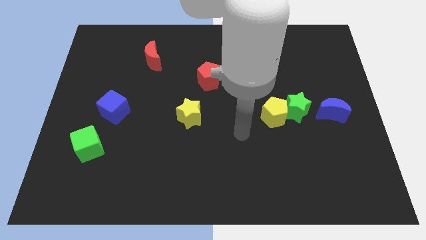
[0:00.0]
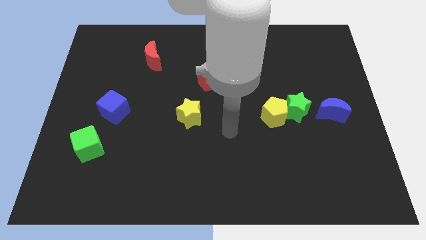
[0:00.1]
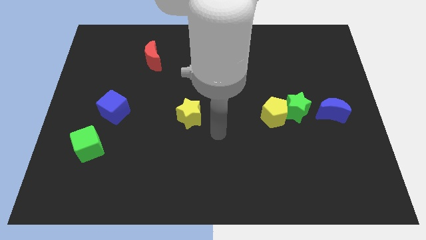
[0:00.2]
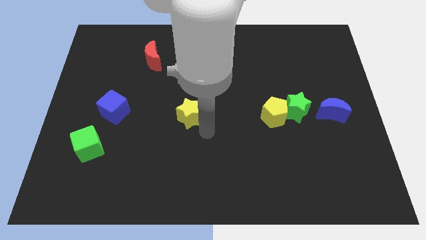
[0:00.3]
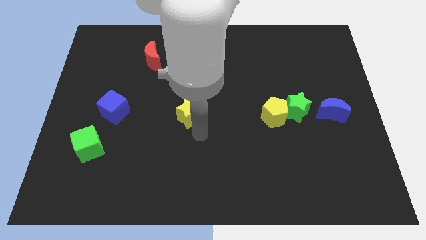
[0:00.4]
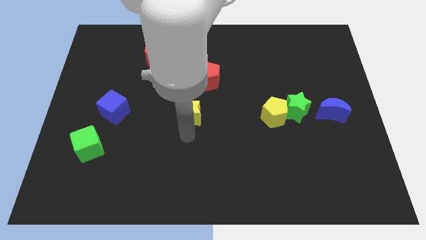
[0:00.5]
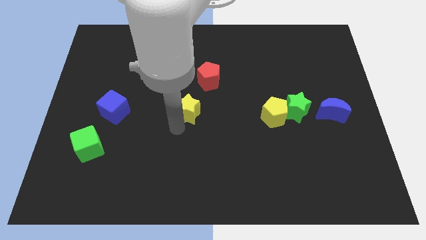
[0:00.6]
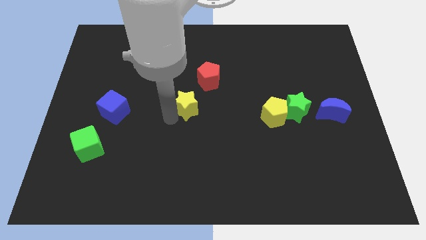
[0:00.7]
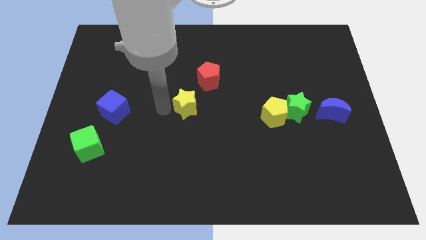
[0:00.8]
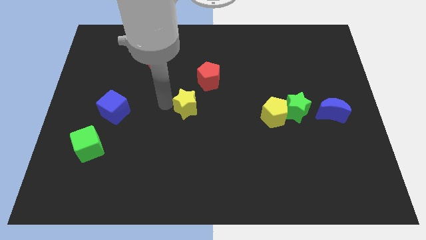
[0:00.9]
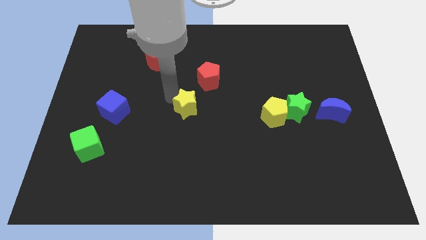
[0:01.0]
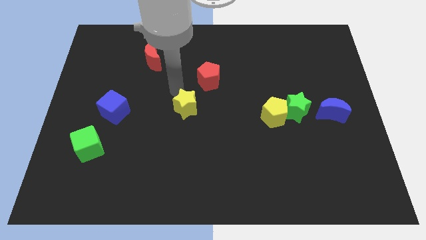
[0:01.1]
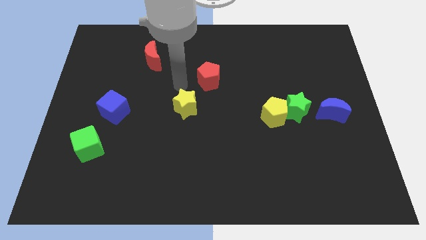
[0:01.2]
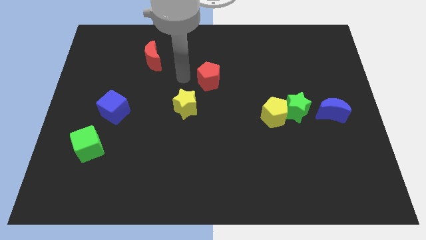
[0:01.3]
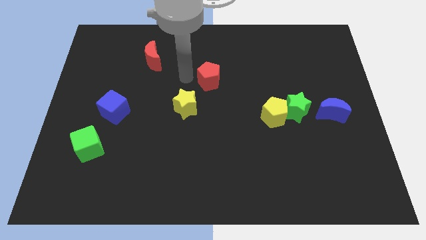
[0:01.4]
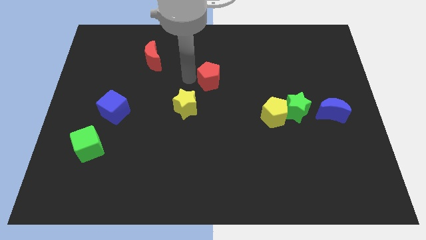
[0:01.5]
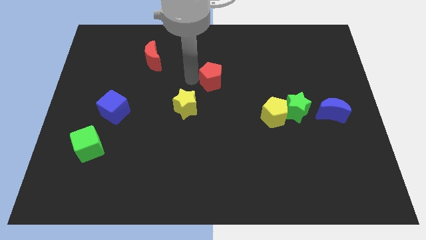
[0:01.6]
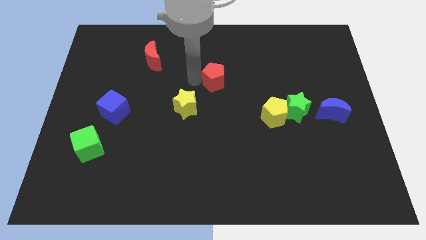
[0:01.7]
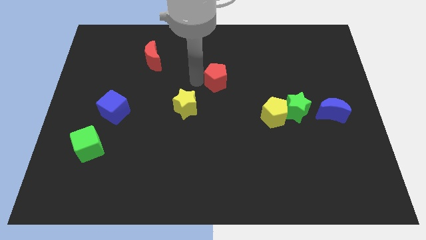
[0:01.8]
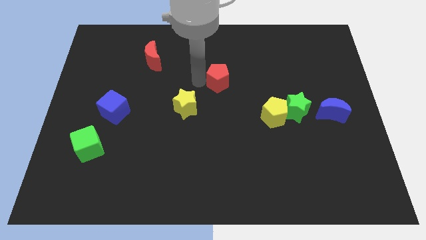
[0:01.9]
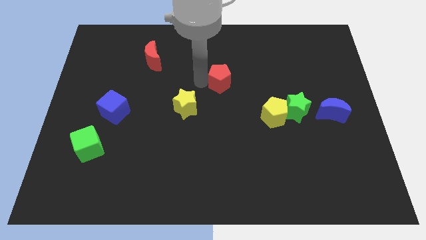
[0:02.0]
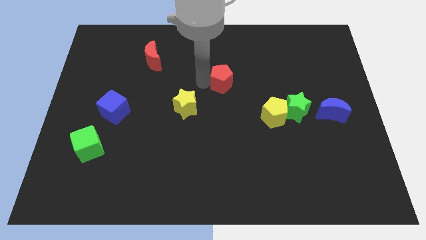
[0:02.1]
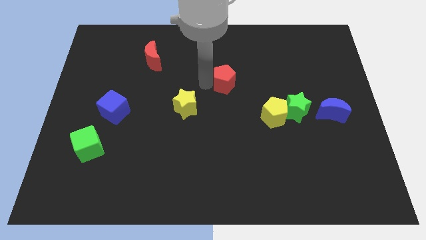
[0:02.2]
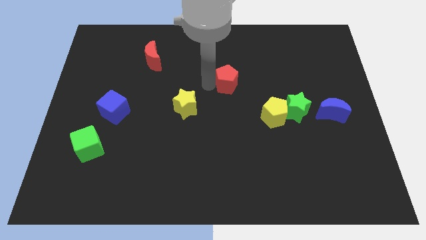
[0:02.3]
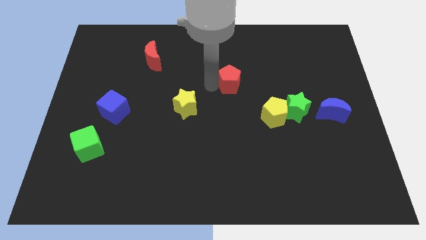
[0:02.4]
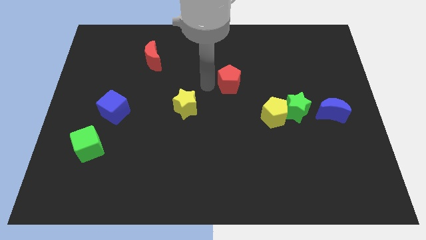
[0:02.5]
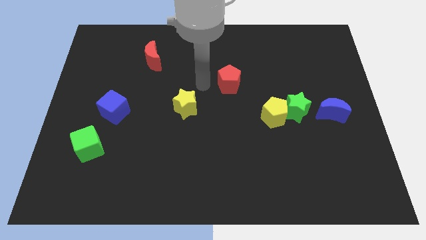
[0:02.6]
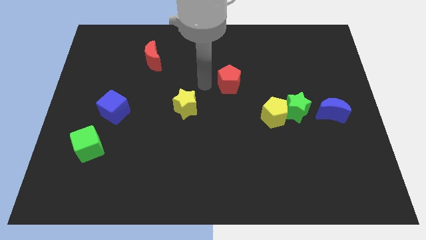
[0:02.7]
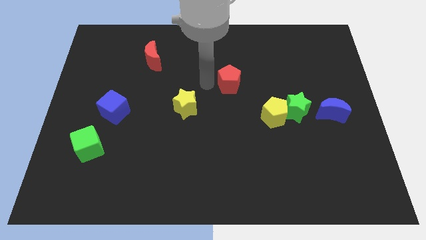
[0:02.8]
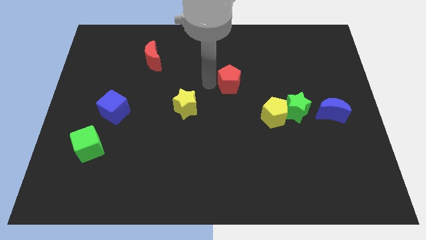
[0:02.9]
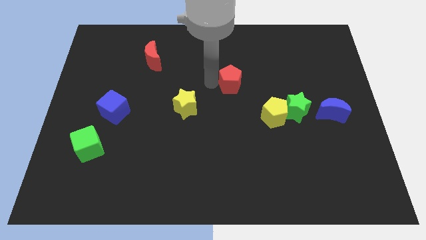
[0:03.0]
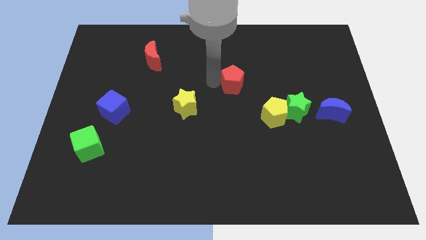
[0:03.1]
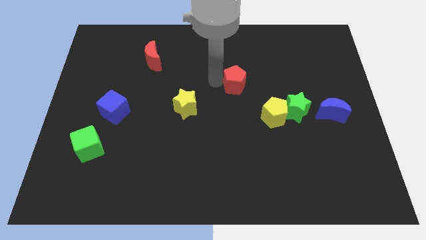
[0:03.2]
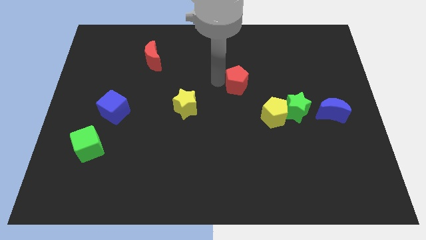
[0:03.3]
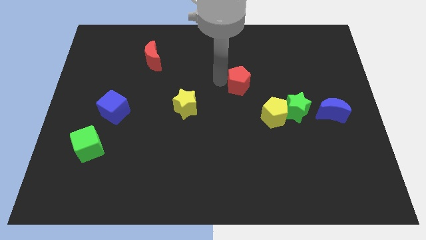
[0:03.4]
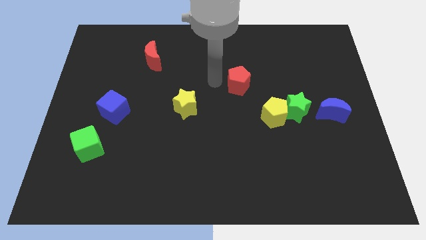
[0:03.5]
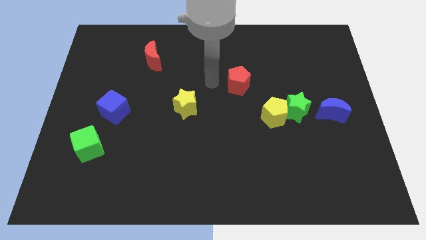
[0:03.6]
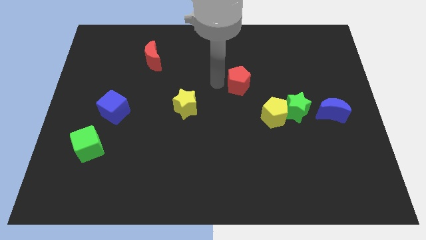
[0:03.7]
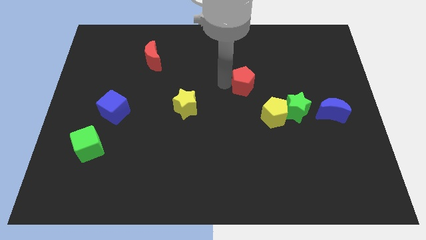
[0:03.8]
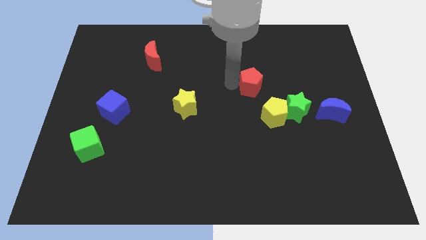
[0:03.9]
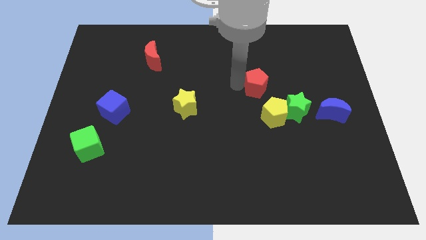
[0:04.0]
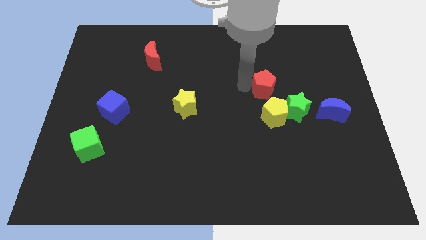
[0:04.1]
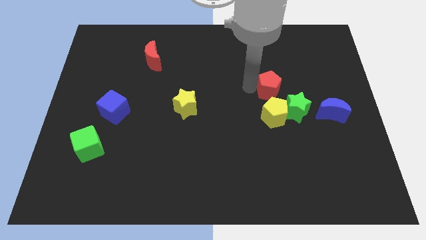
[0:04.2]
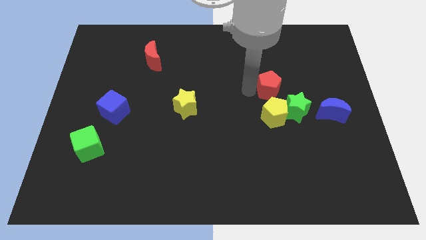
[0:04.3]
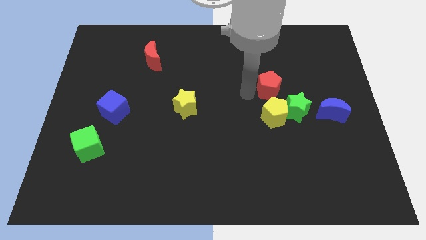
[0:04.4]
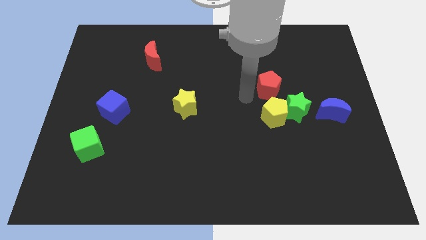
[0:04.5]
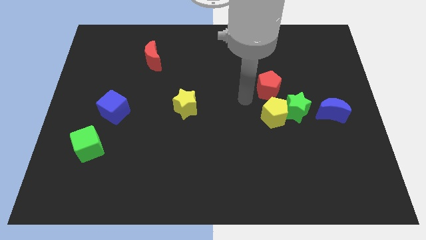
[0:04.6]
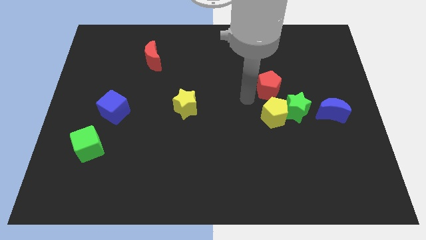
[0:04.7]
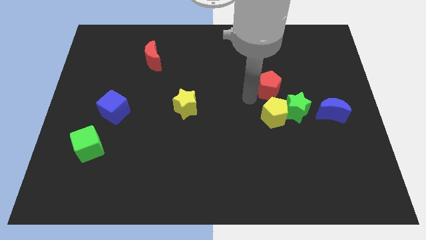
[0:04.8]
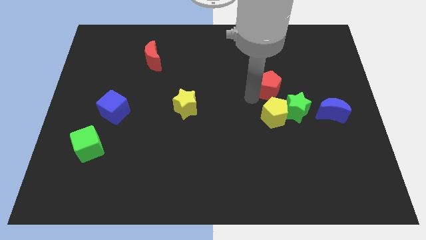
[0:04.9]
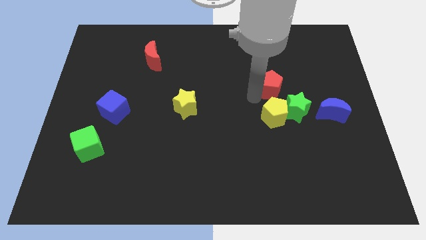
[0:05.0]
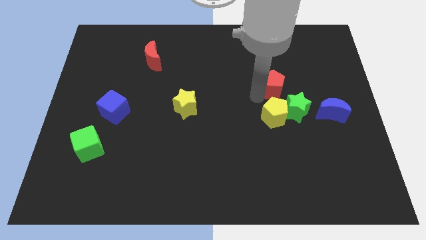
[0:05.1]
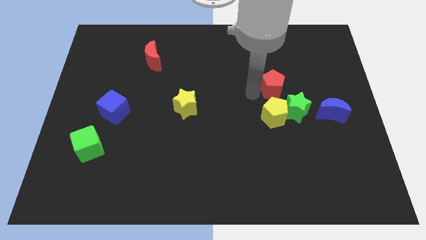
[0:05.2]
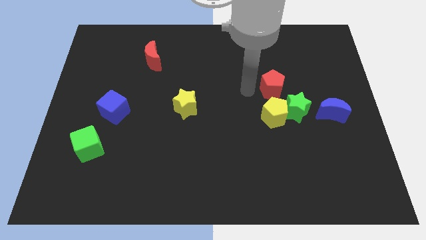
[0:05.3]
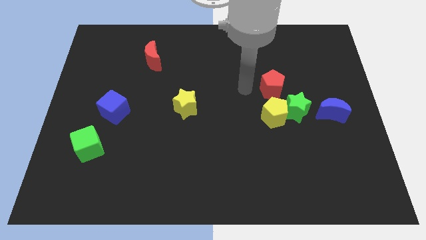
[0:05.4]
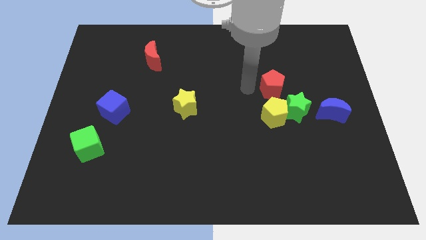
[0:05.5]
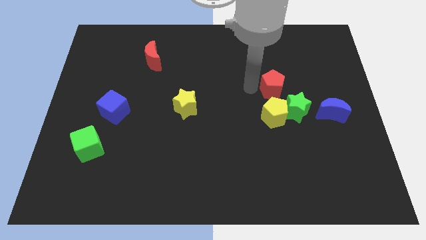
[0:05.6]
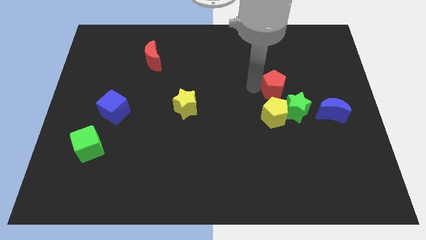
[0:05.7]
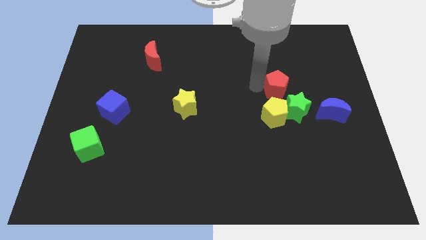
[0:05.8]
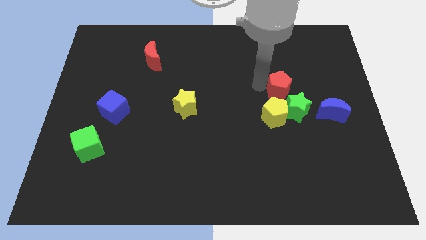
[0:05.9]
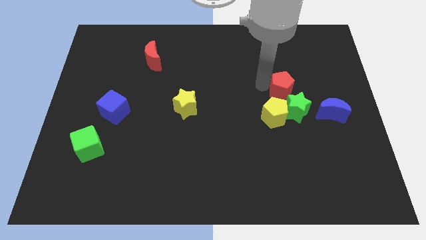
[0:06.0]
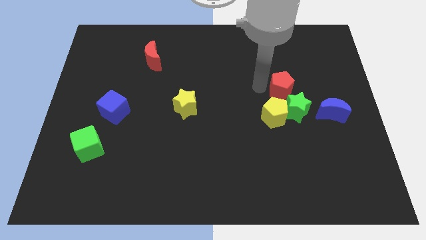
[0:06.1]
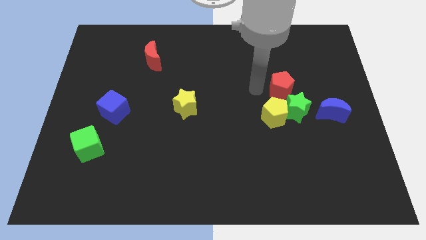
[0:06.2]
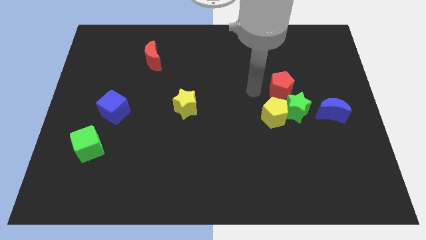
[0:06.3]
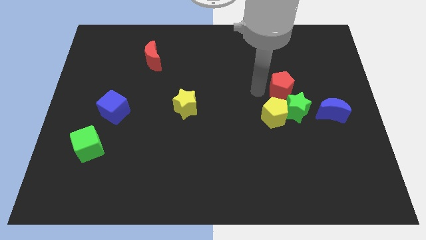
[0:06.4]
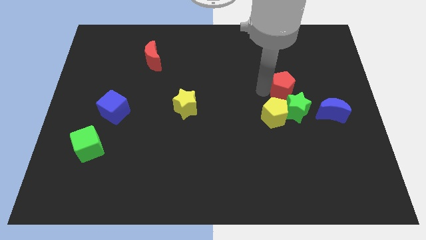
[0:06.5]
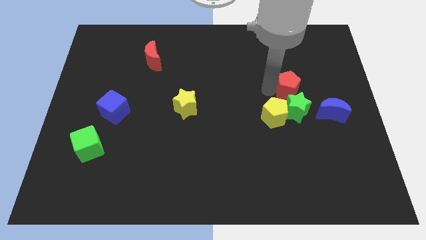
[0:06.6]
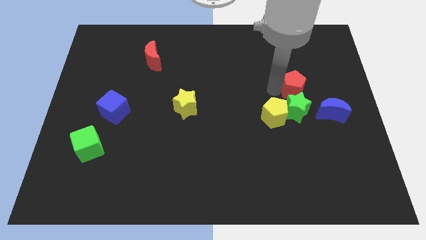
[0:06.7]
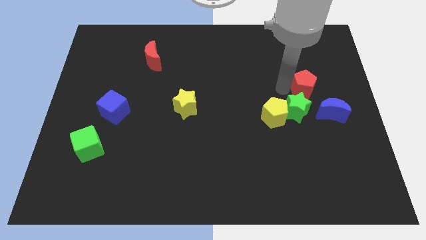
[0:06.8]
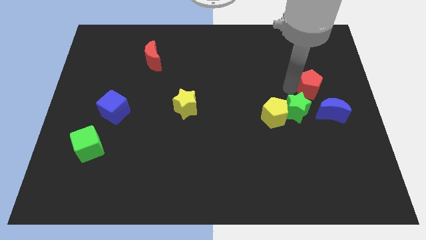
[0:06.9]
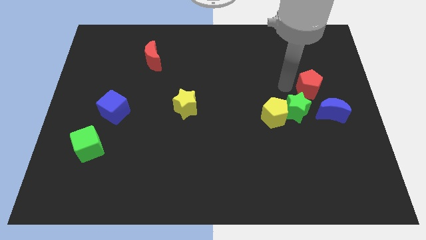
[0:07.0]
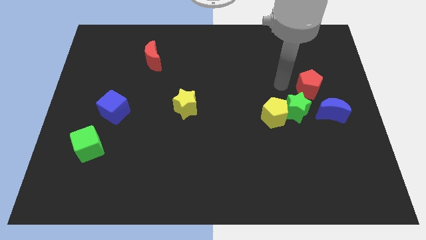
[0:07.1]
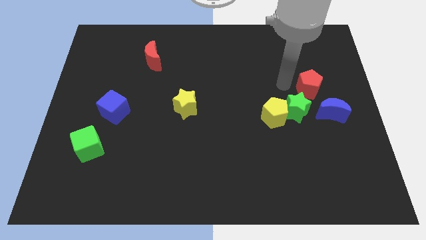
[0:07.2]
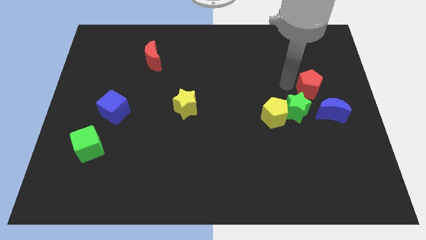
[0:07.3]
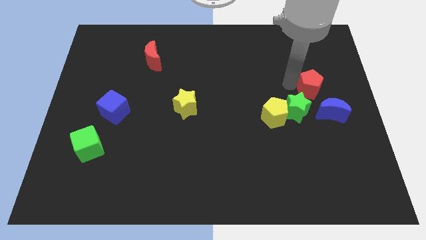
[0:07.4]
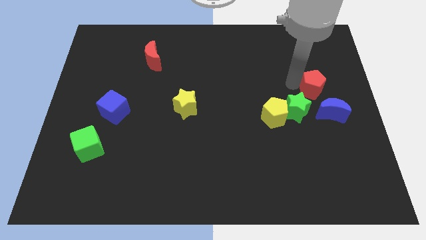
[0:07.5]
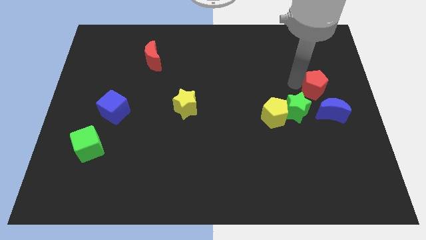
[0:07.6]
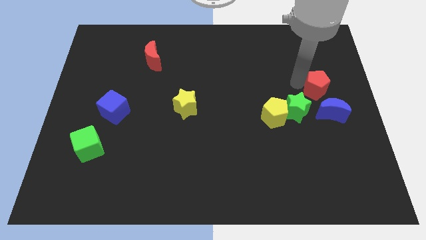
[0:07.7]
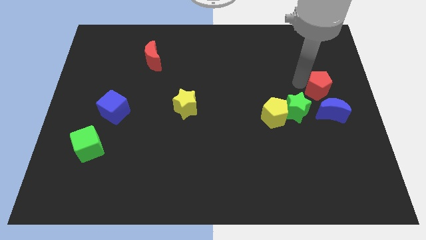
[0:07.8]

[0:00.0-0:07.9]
slide the red pentagon to the center right
